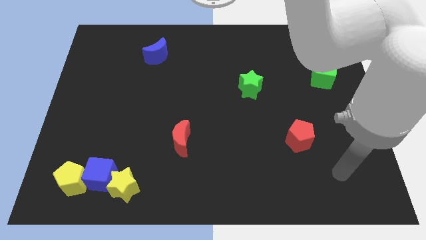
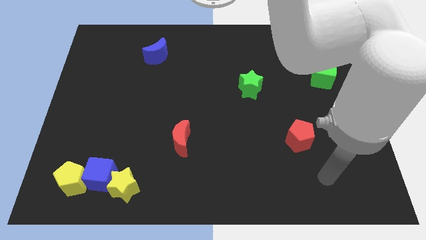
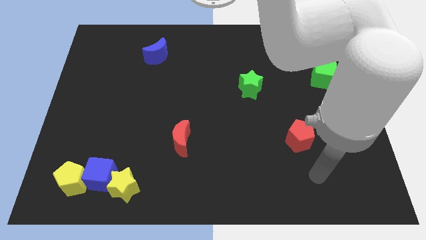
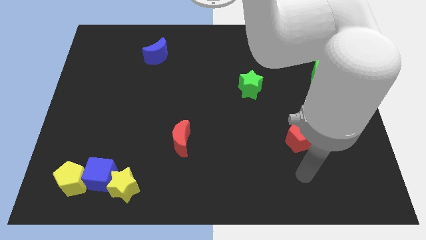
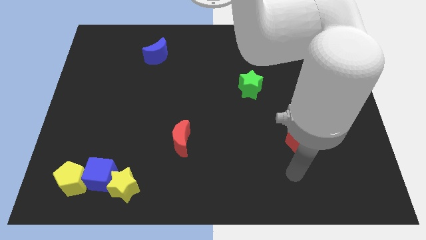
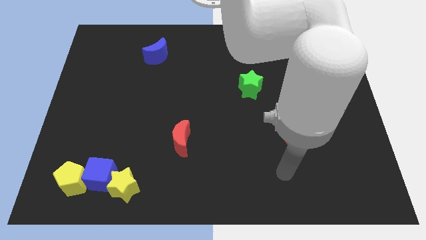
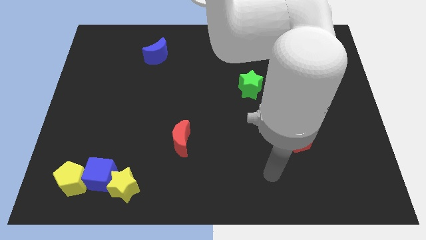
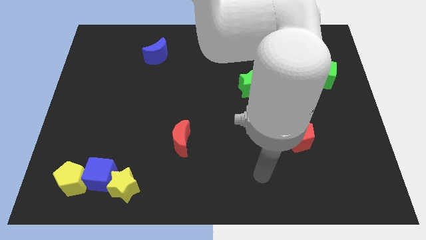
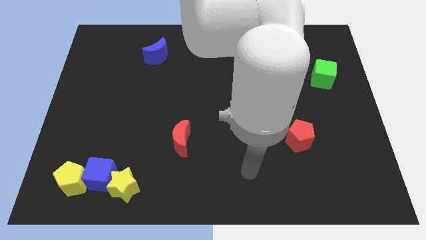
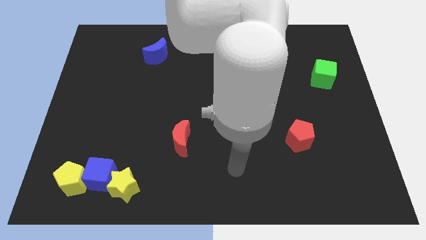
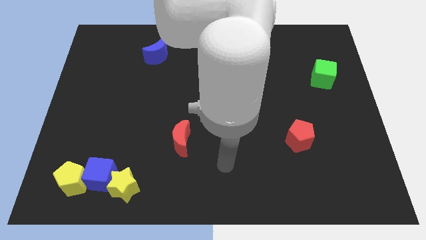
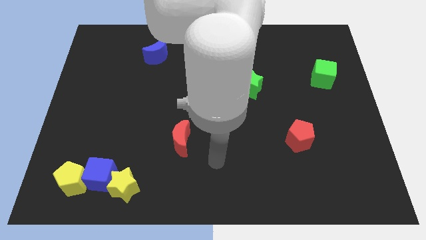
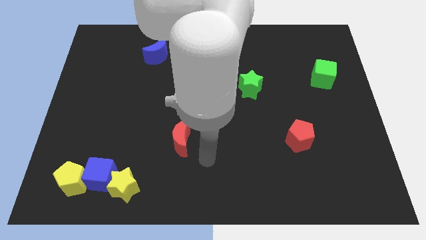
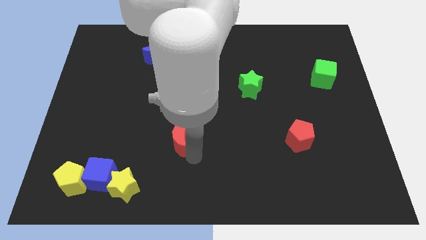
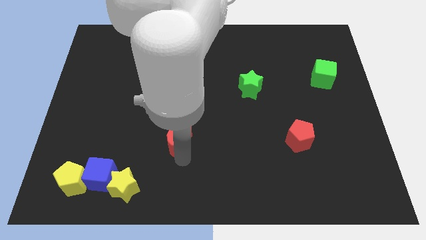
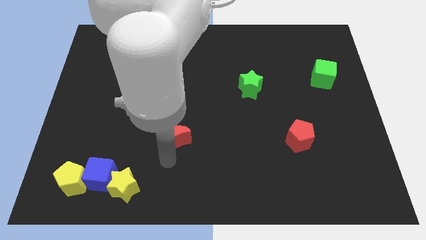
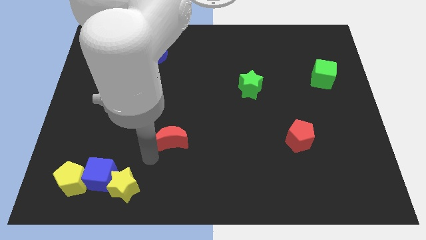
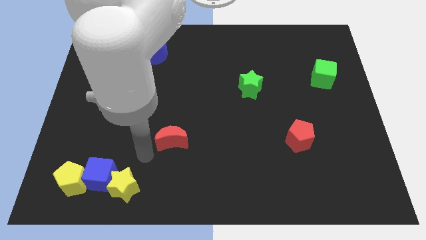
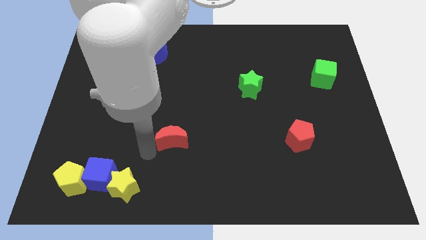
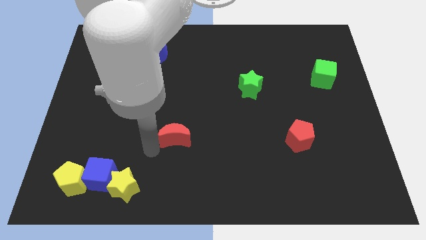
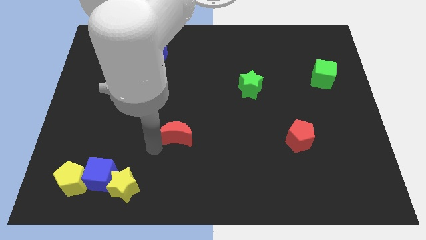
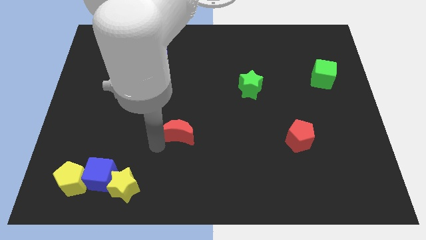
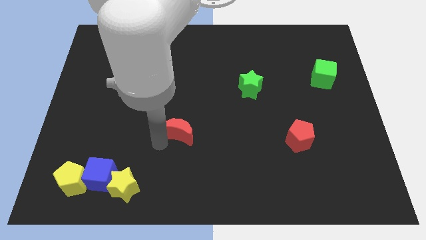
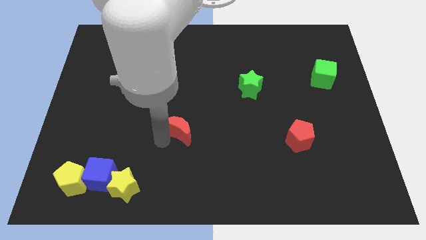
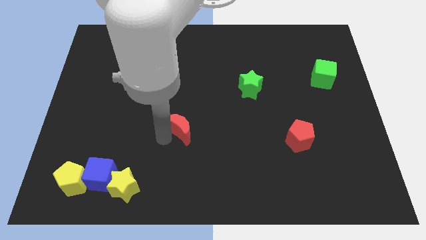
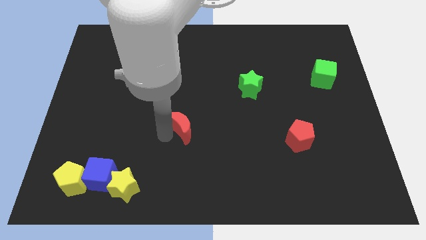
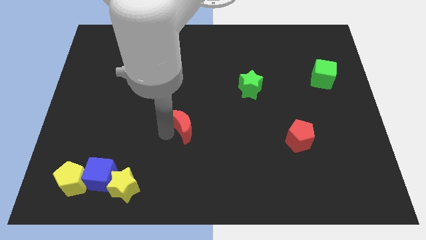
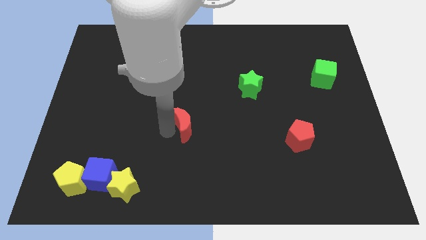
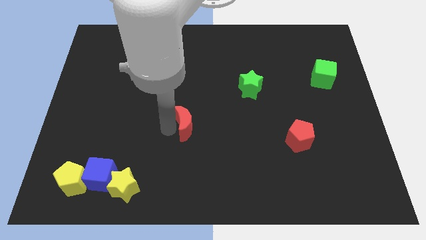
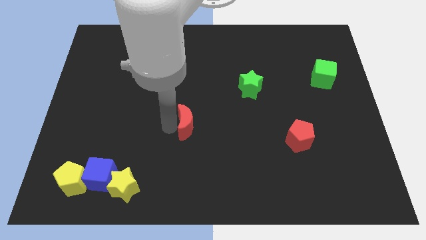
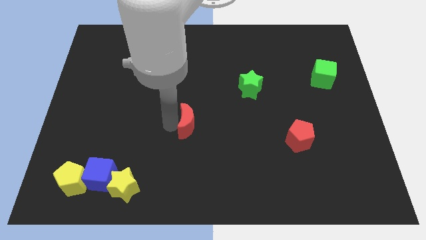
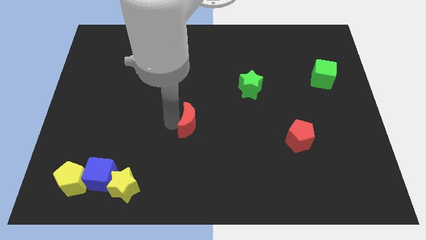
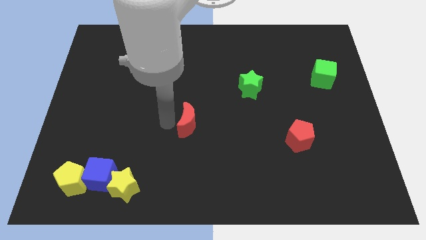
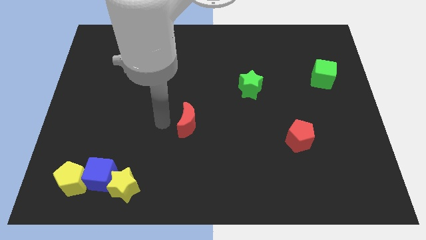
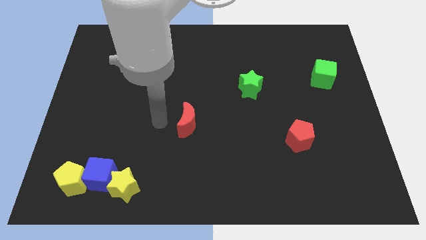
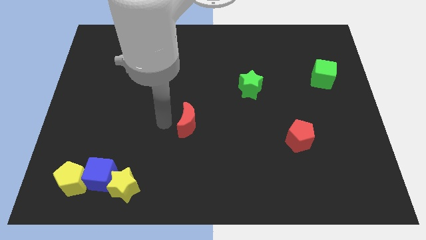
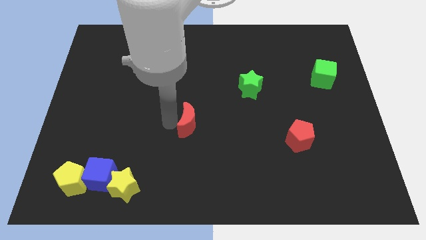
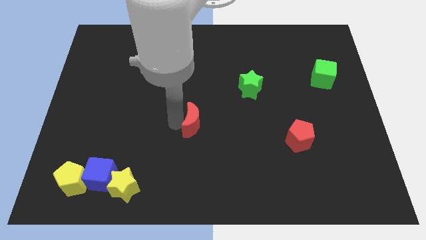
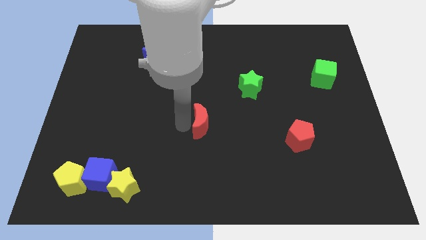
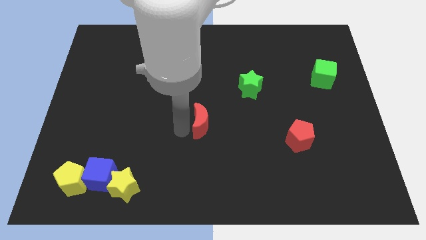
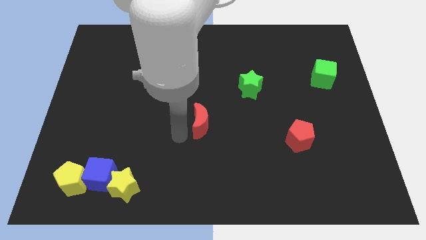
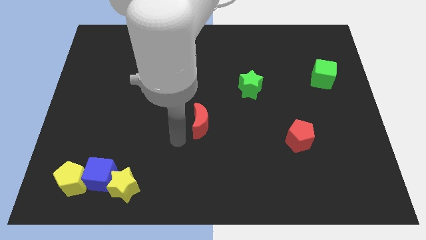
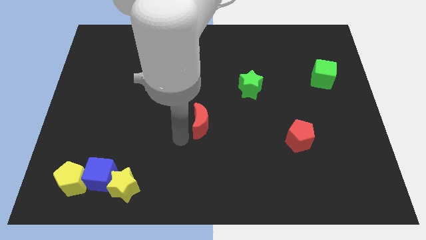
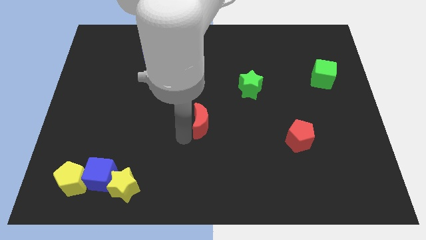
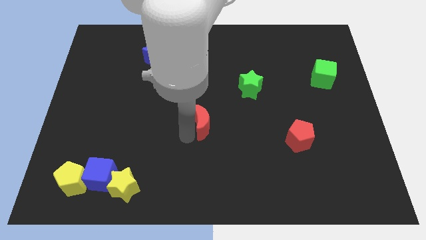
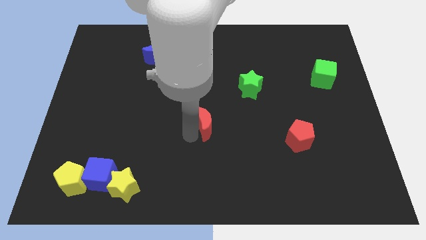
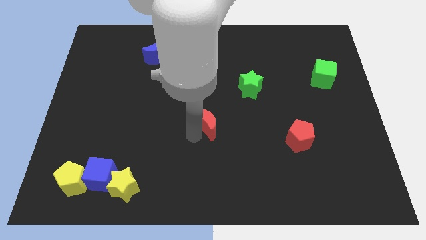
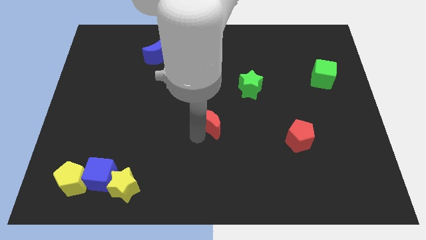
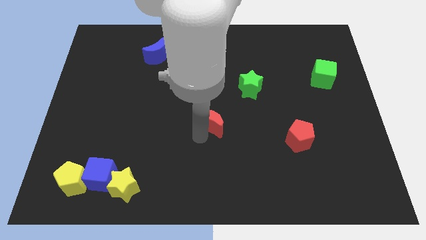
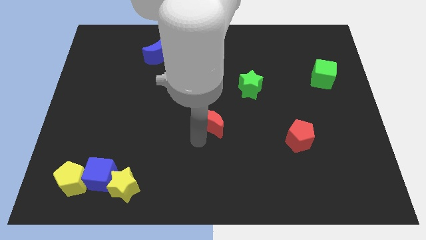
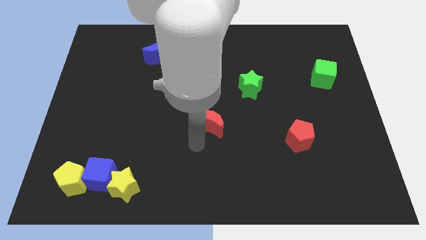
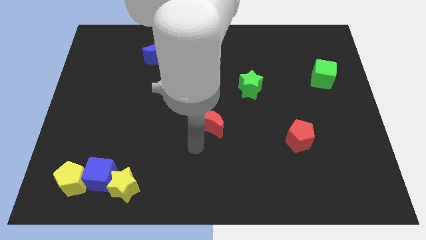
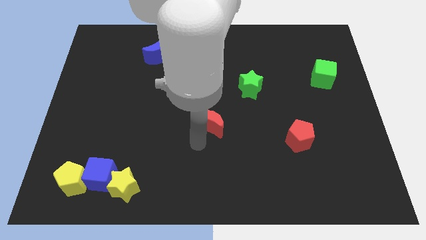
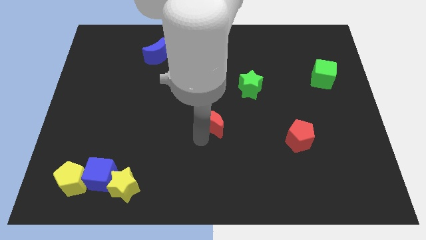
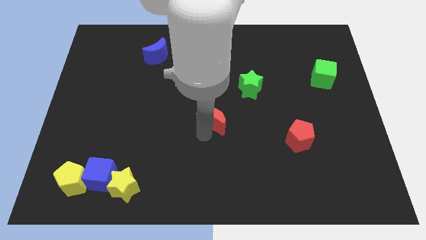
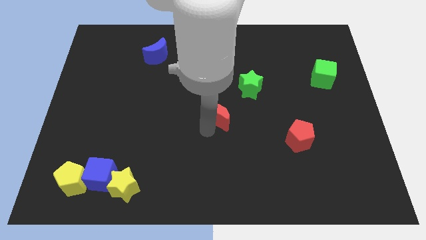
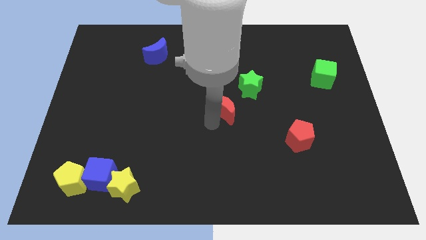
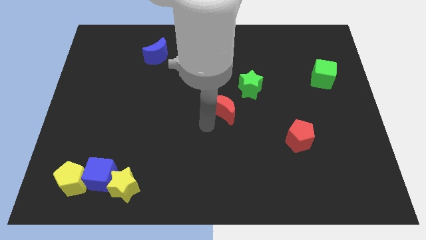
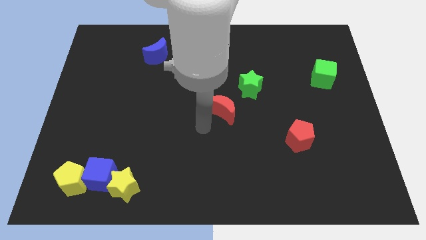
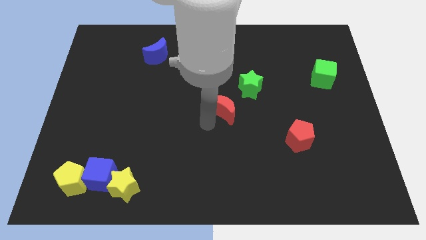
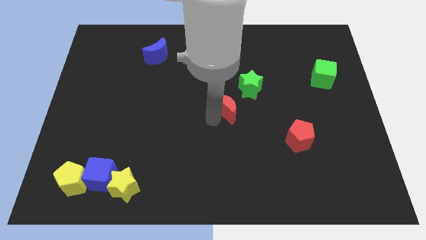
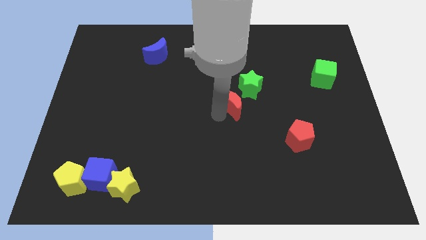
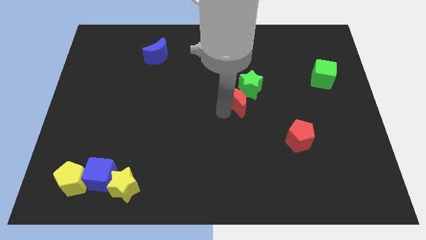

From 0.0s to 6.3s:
push the red moon close to the green star

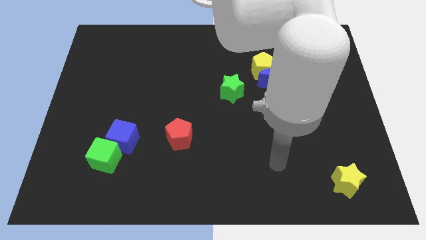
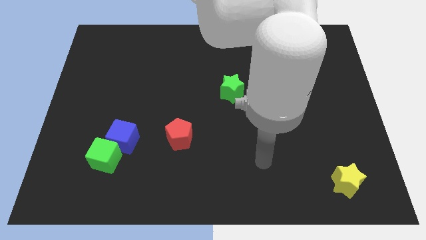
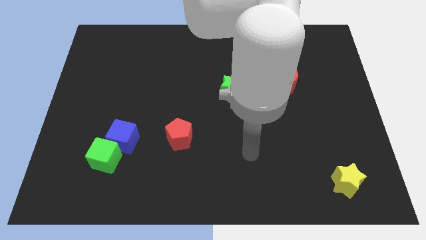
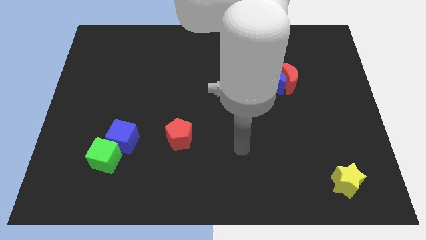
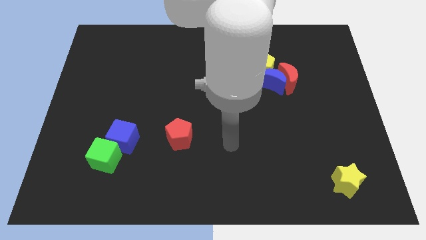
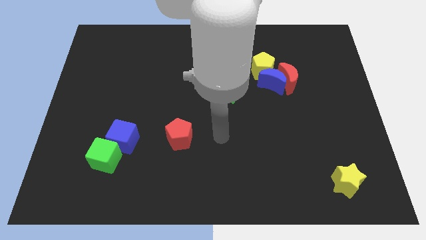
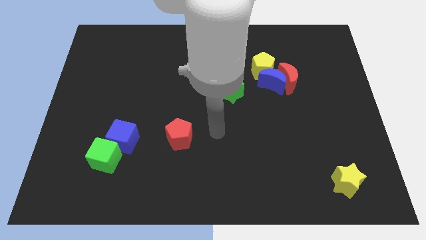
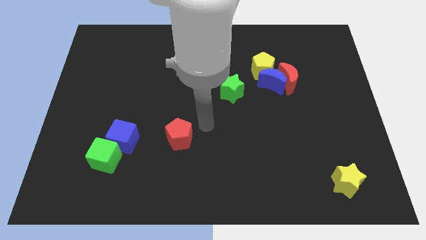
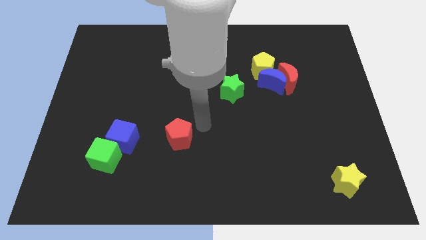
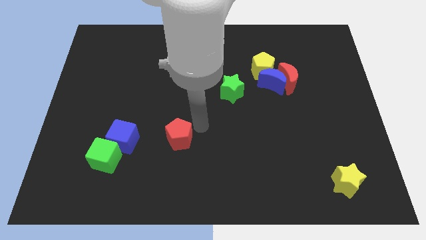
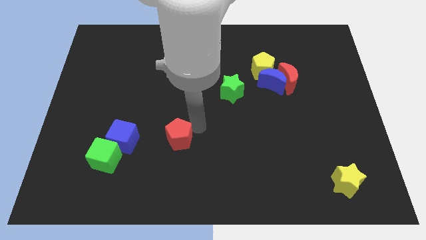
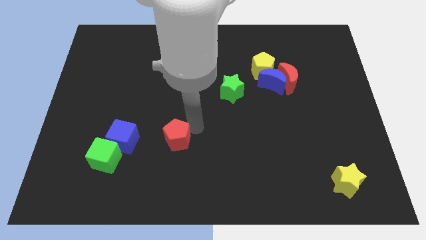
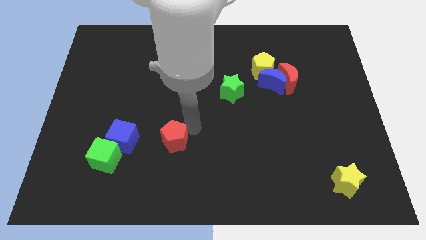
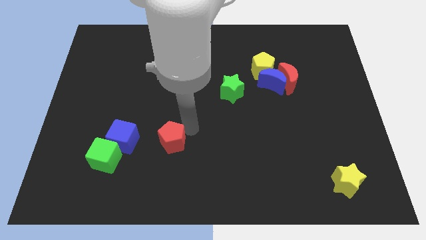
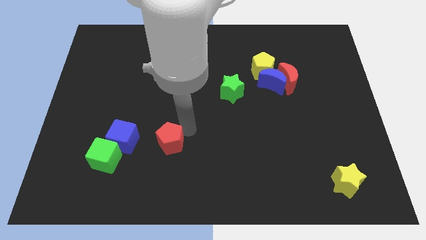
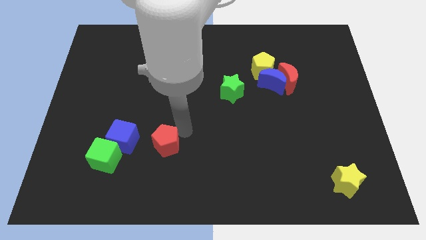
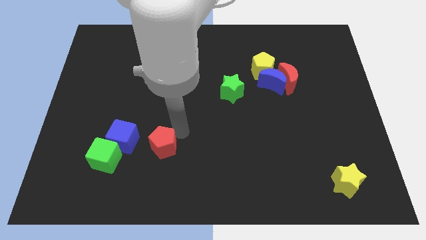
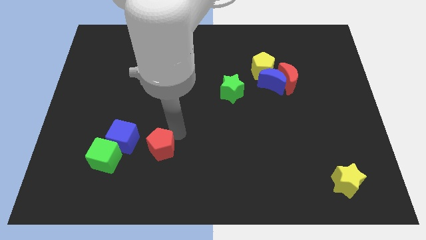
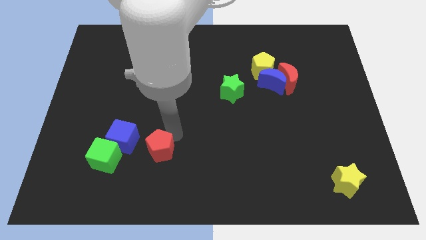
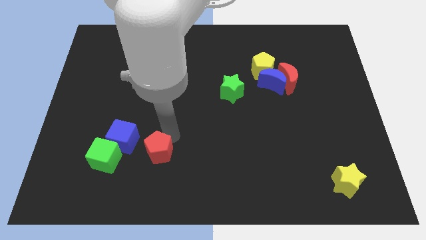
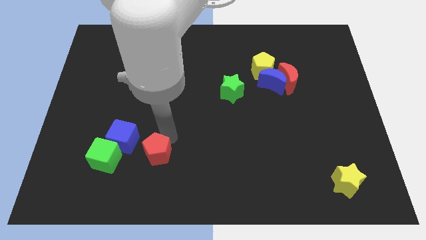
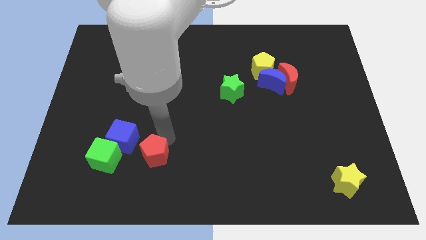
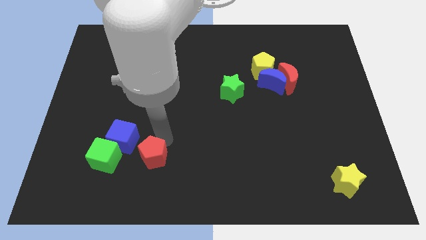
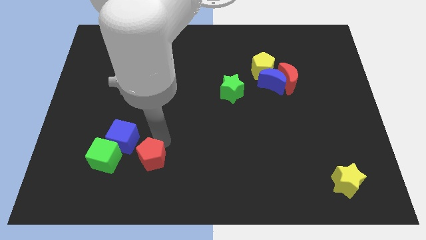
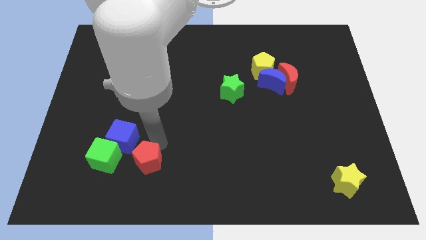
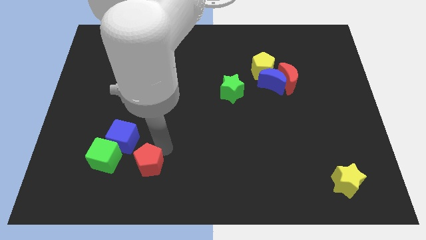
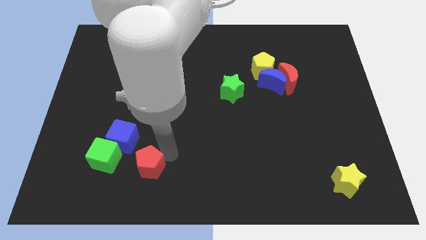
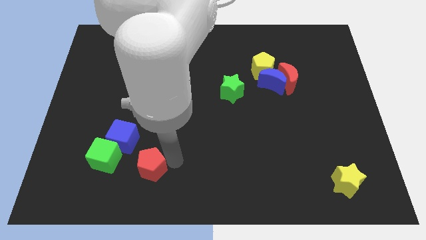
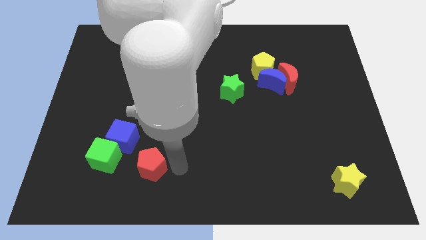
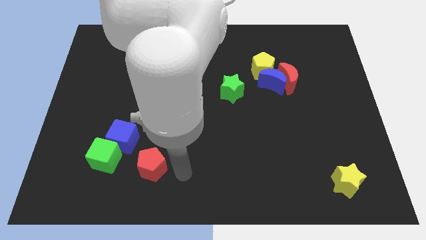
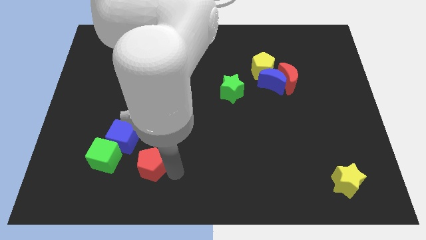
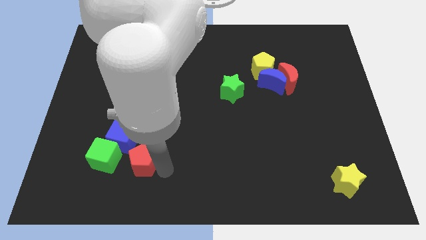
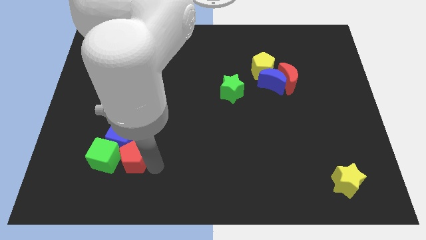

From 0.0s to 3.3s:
slide the red pentagon to the green cube
